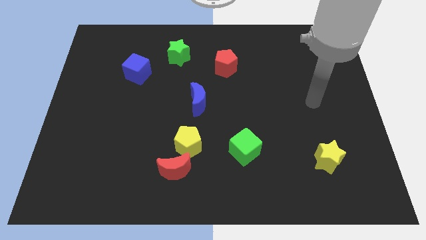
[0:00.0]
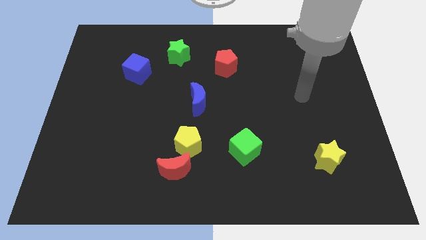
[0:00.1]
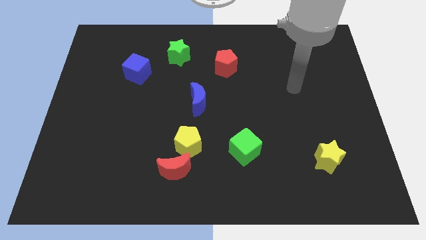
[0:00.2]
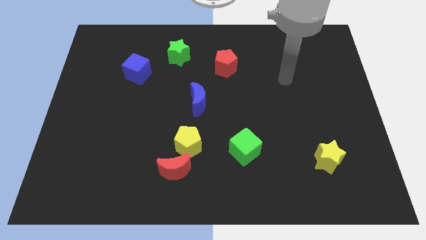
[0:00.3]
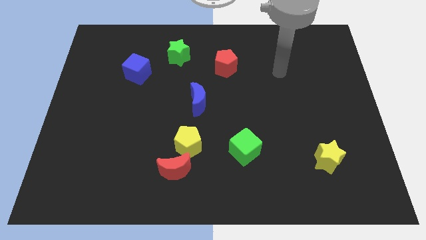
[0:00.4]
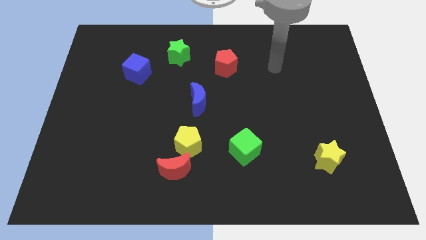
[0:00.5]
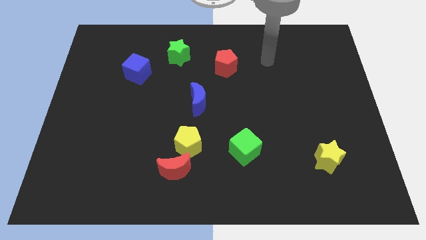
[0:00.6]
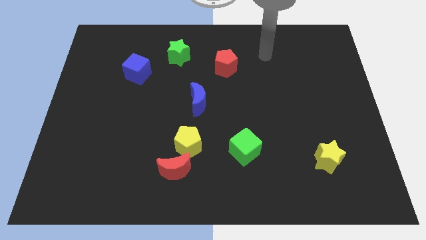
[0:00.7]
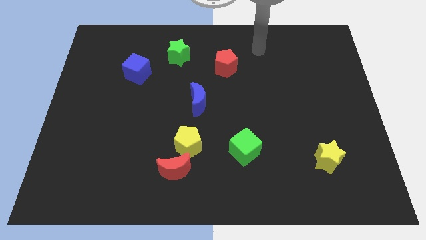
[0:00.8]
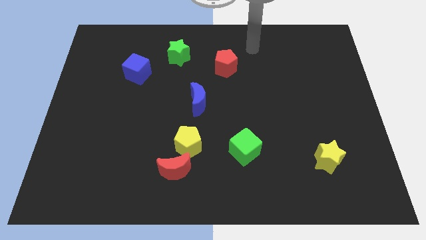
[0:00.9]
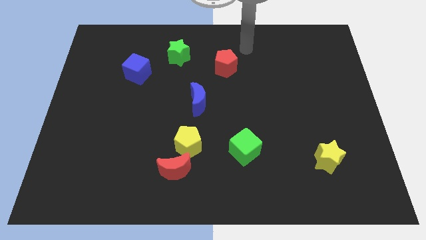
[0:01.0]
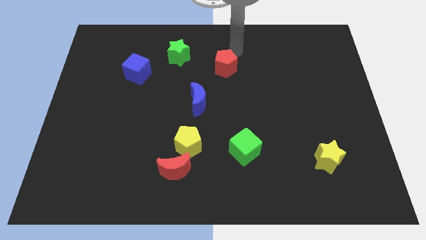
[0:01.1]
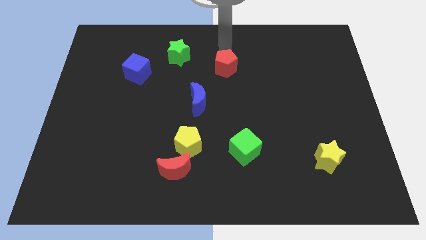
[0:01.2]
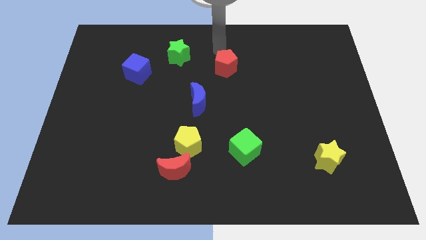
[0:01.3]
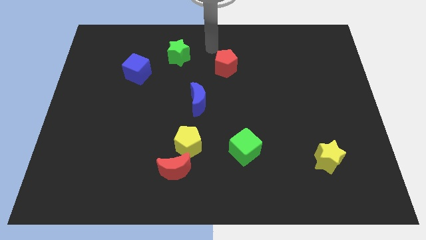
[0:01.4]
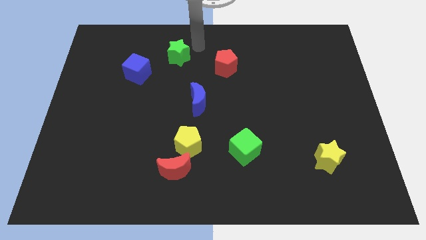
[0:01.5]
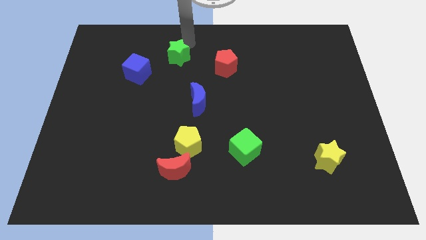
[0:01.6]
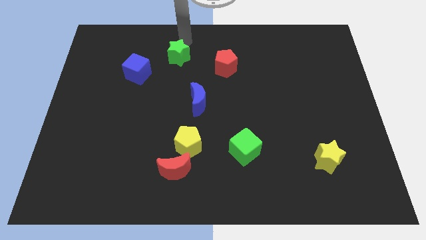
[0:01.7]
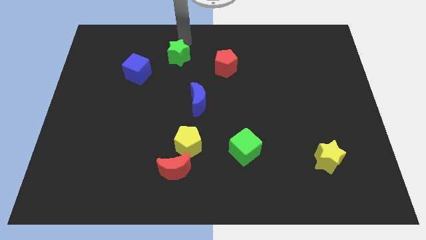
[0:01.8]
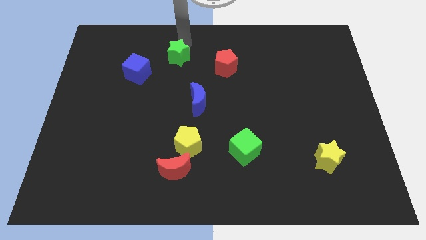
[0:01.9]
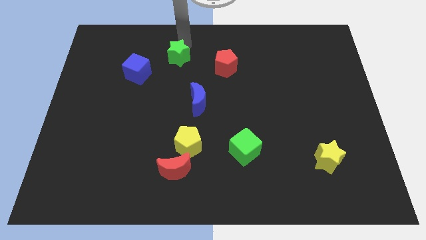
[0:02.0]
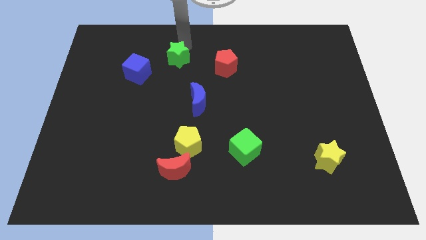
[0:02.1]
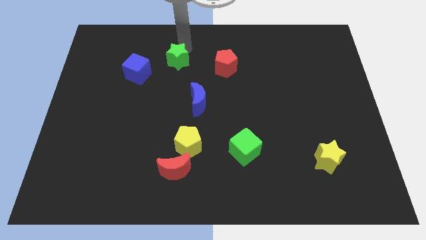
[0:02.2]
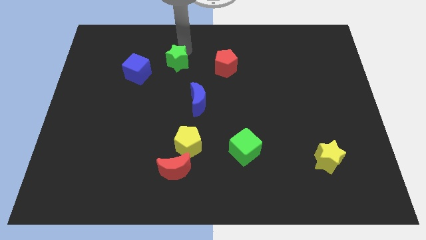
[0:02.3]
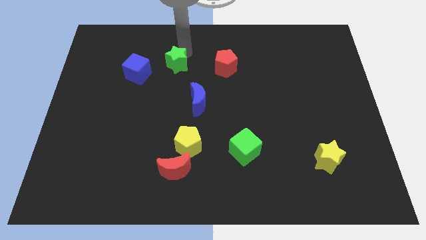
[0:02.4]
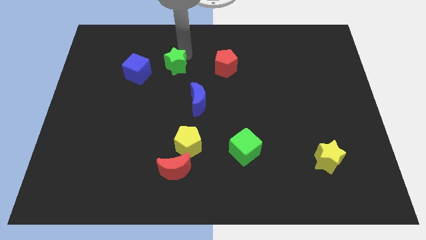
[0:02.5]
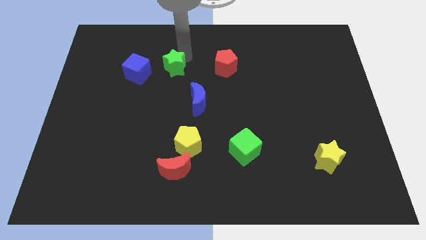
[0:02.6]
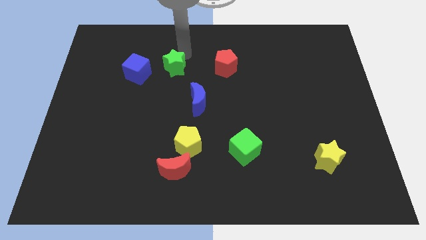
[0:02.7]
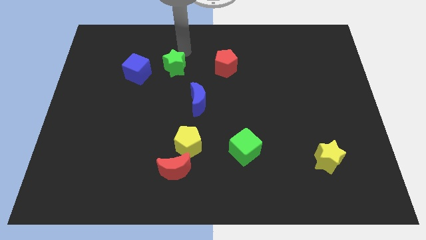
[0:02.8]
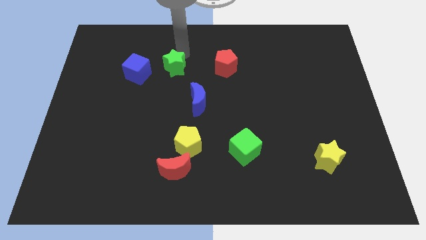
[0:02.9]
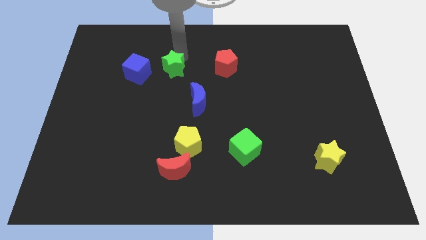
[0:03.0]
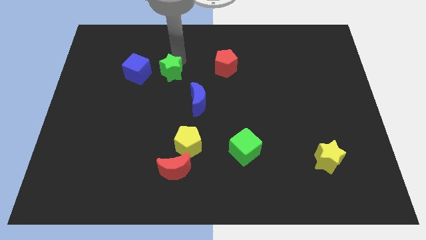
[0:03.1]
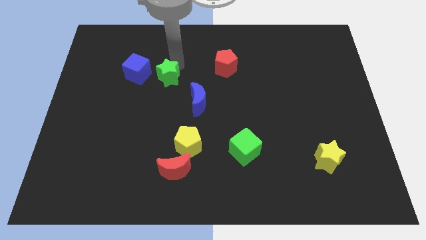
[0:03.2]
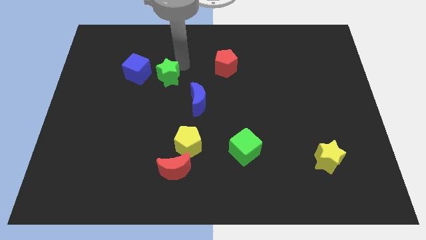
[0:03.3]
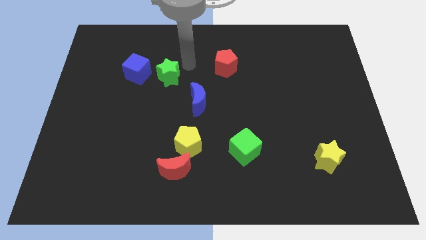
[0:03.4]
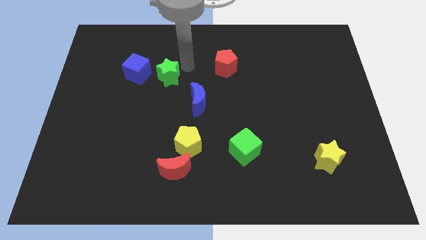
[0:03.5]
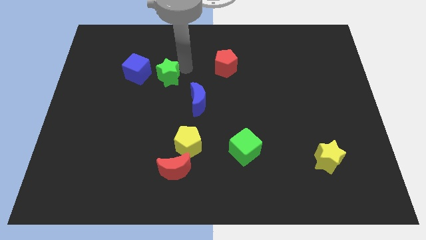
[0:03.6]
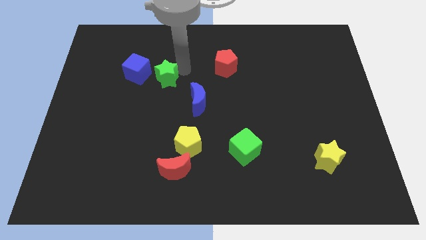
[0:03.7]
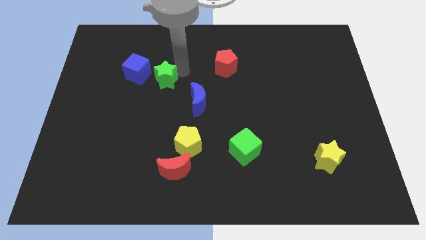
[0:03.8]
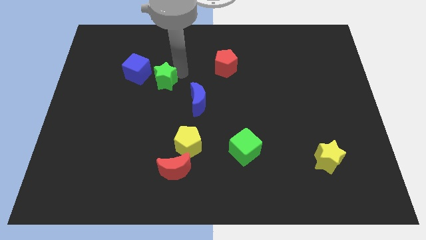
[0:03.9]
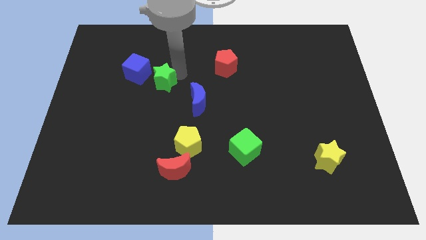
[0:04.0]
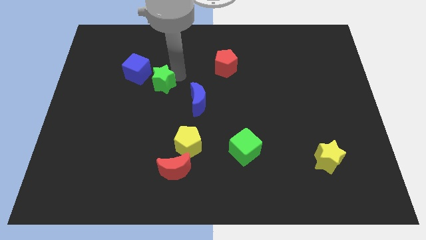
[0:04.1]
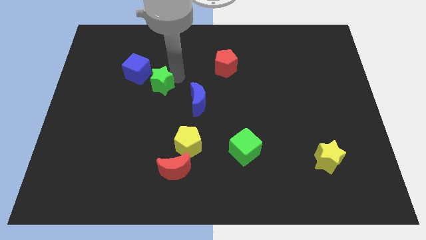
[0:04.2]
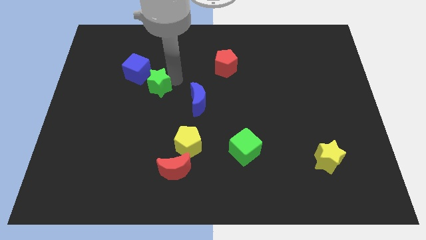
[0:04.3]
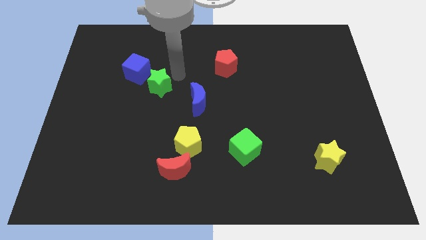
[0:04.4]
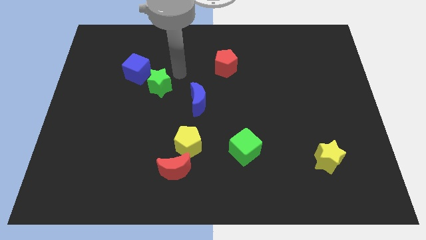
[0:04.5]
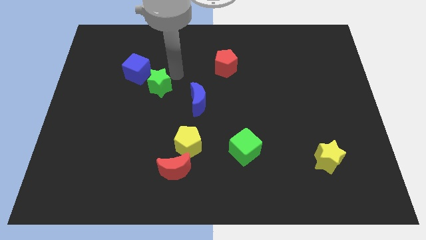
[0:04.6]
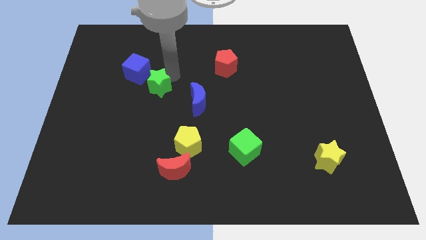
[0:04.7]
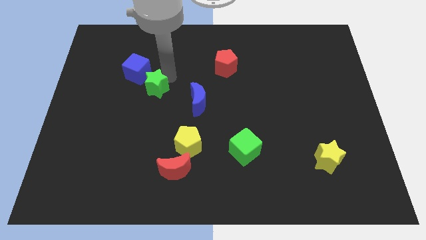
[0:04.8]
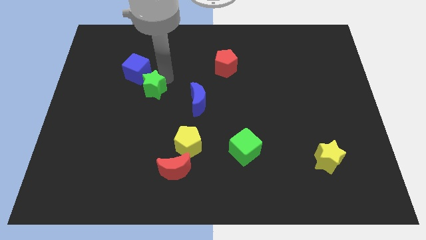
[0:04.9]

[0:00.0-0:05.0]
put the green star to the bottom side of the blue cube

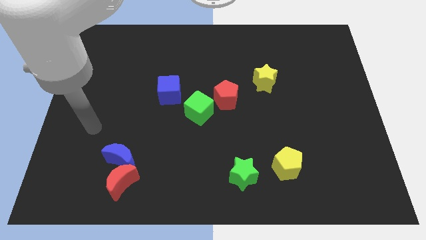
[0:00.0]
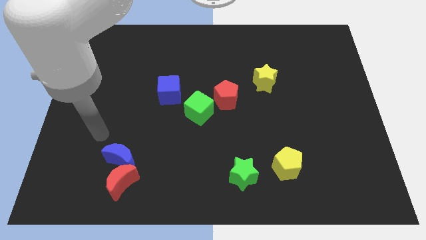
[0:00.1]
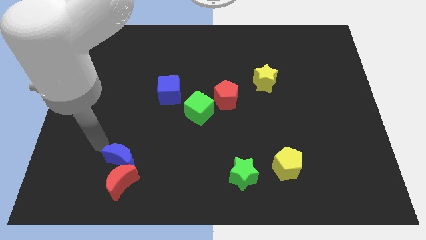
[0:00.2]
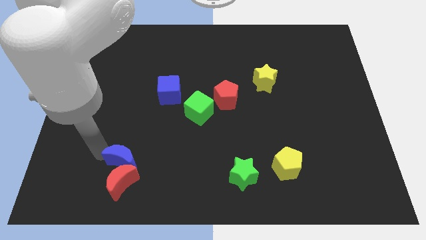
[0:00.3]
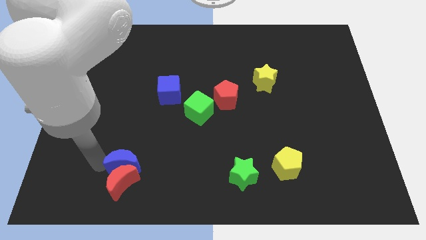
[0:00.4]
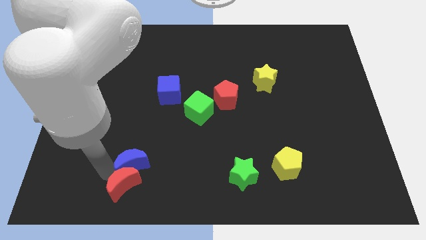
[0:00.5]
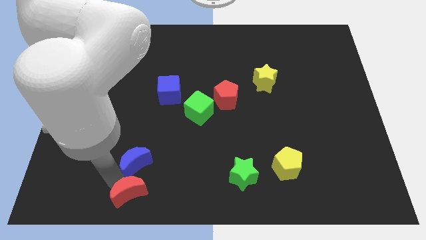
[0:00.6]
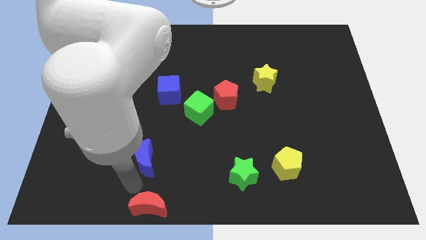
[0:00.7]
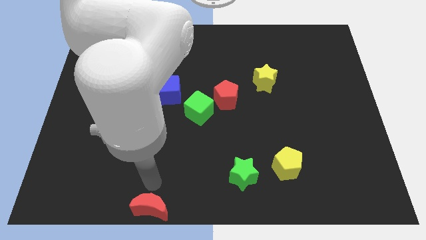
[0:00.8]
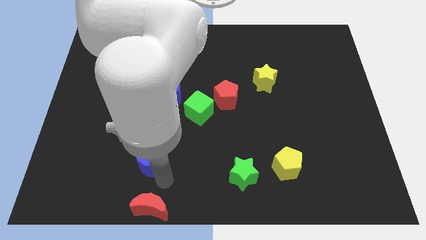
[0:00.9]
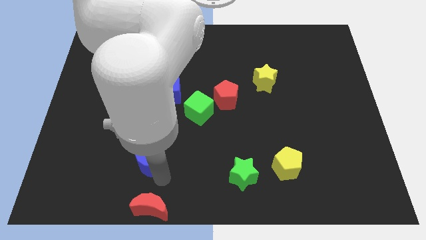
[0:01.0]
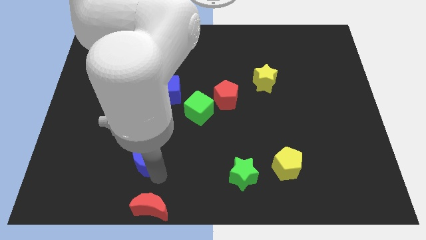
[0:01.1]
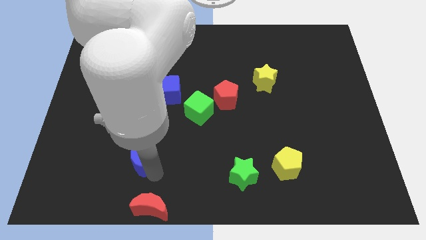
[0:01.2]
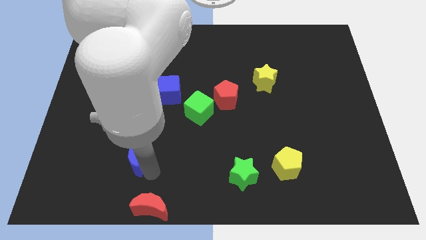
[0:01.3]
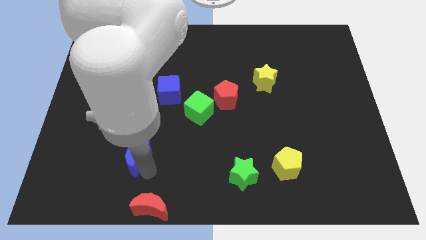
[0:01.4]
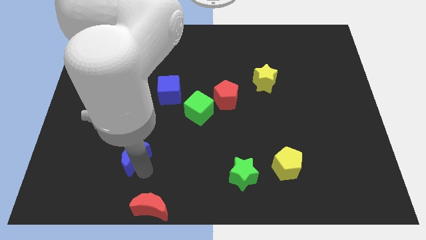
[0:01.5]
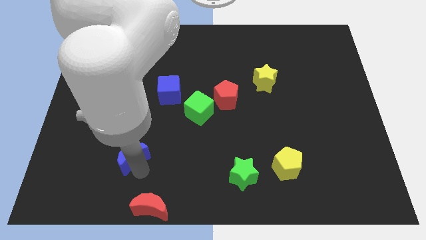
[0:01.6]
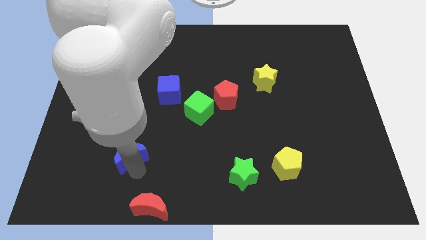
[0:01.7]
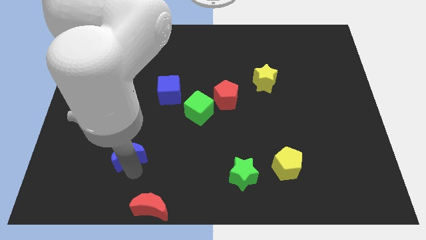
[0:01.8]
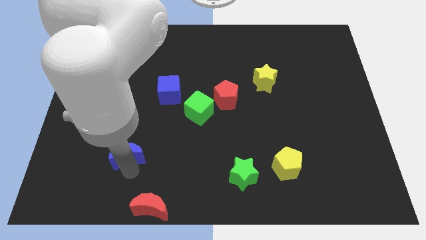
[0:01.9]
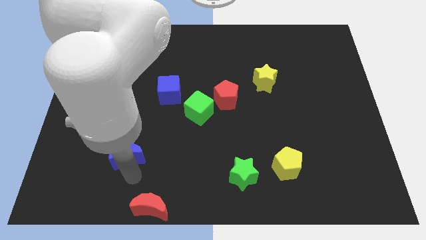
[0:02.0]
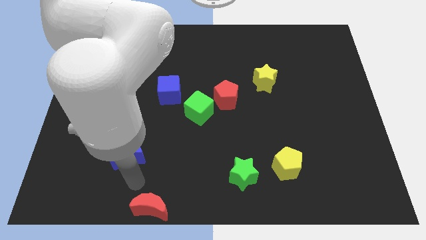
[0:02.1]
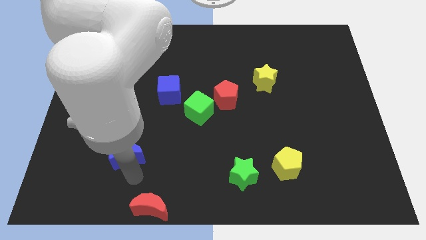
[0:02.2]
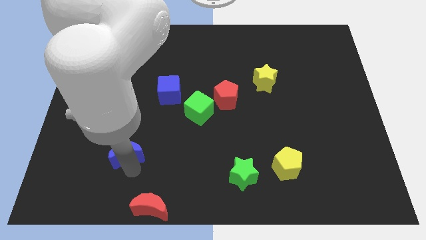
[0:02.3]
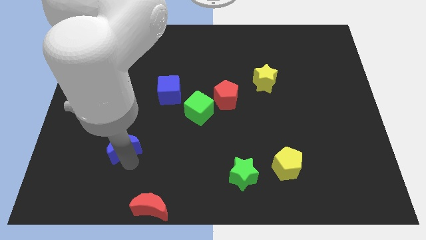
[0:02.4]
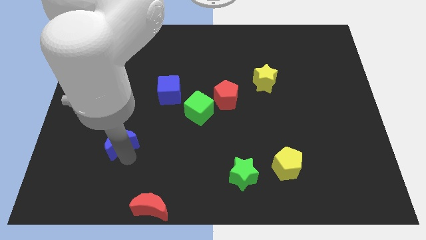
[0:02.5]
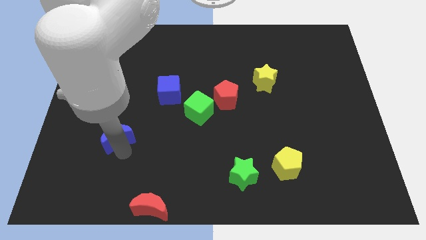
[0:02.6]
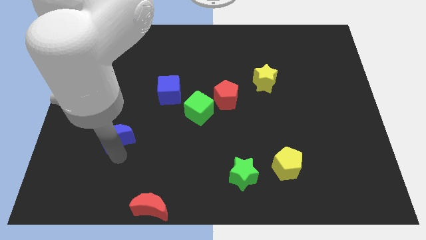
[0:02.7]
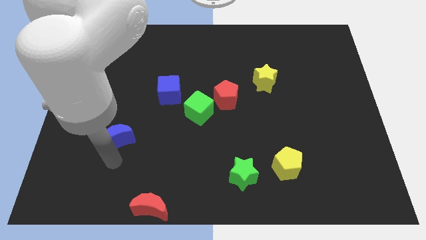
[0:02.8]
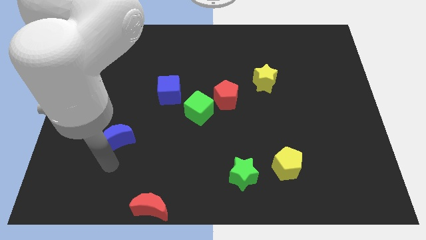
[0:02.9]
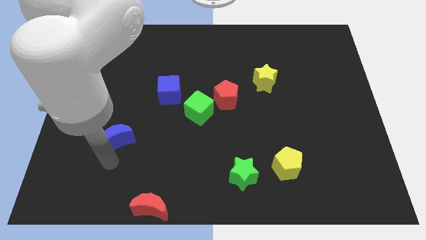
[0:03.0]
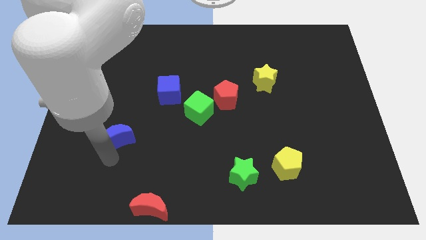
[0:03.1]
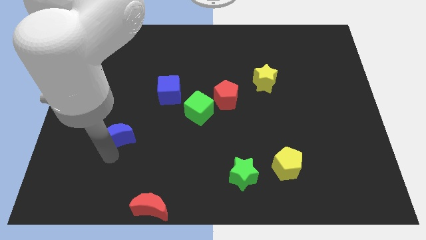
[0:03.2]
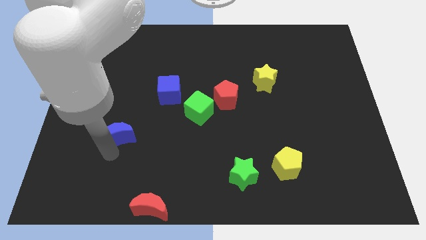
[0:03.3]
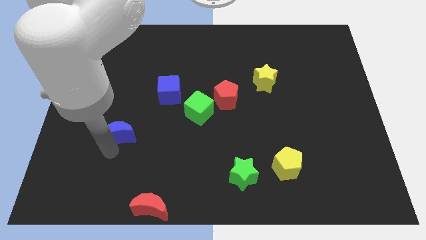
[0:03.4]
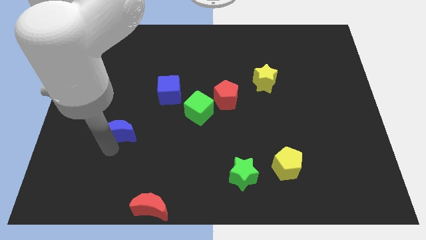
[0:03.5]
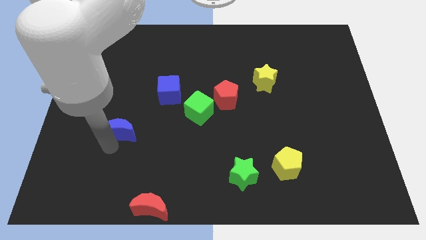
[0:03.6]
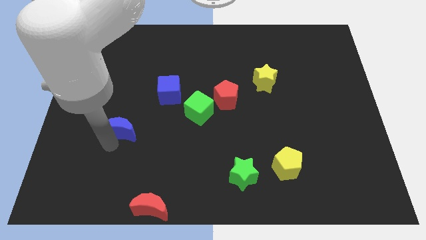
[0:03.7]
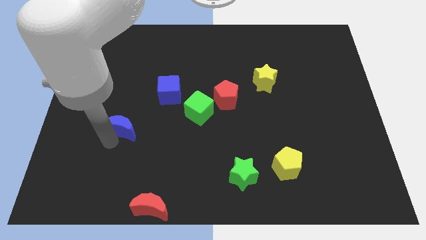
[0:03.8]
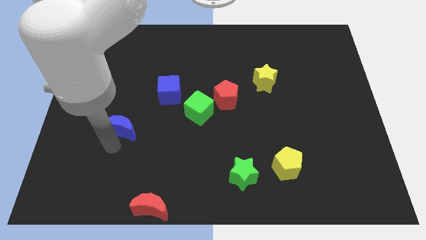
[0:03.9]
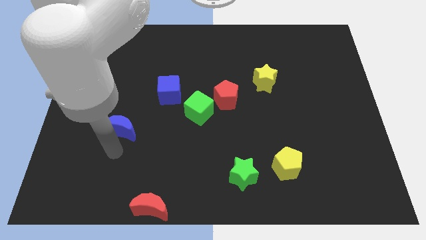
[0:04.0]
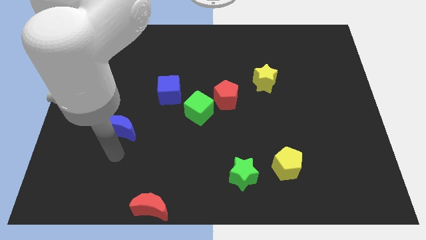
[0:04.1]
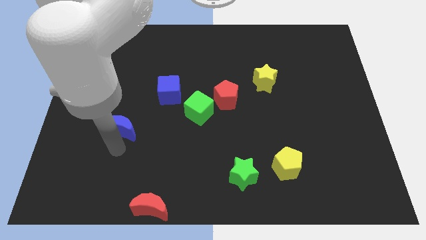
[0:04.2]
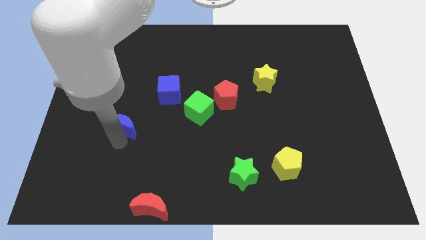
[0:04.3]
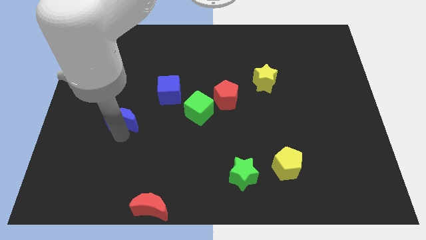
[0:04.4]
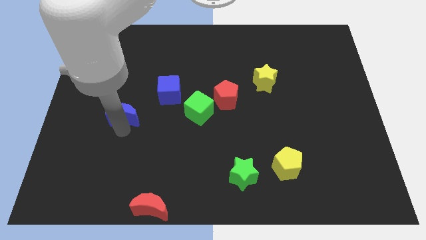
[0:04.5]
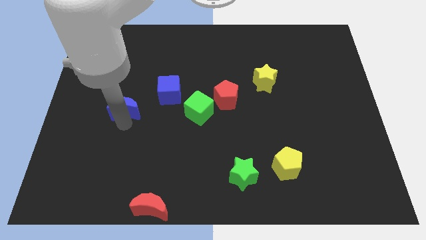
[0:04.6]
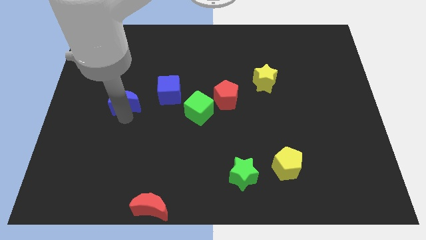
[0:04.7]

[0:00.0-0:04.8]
put the blue moon left of the blue cube
